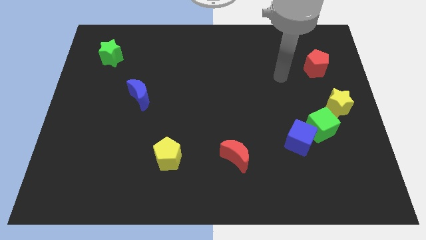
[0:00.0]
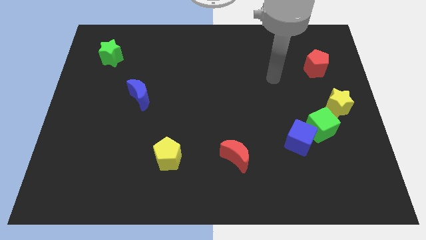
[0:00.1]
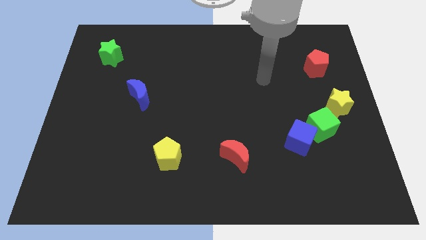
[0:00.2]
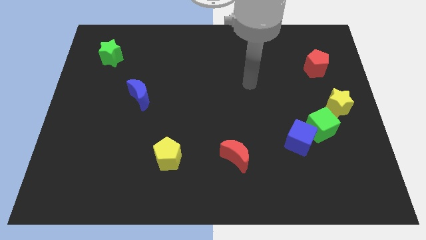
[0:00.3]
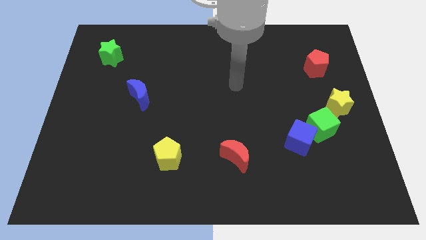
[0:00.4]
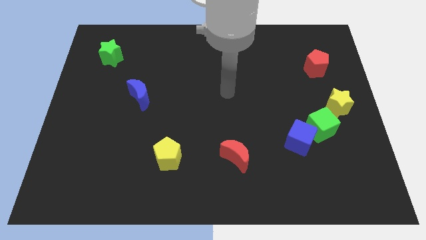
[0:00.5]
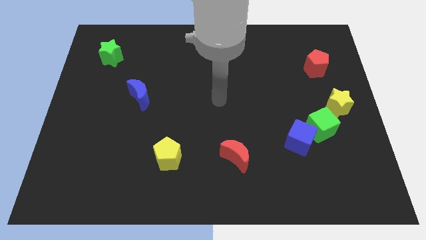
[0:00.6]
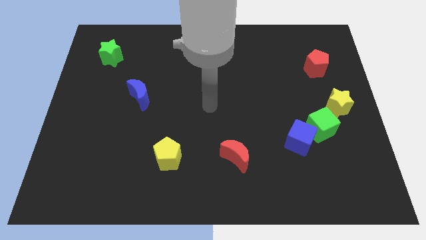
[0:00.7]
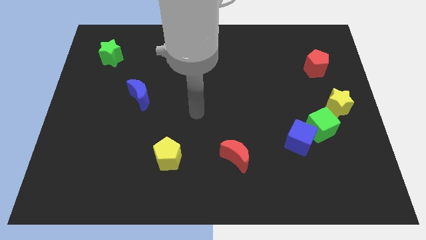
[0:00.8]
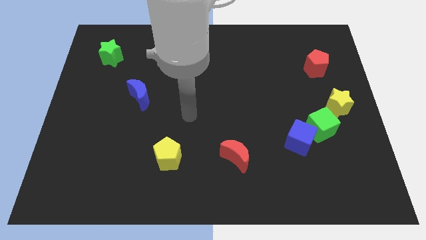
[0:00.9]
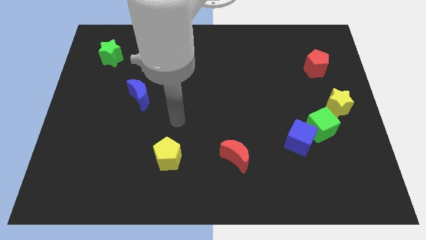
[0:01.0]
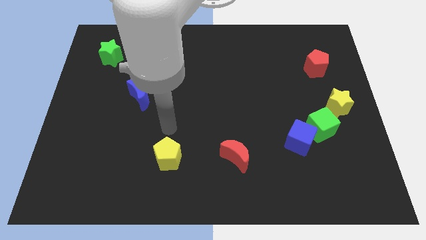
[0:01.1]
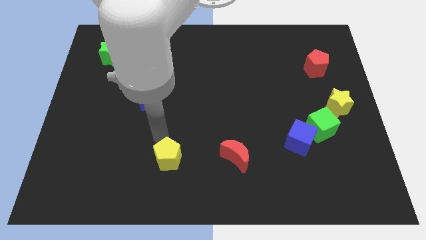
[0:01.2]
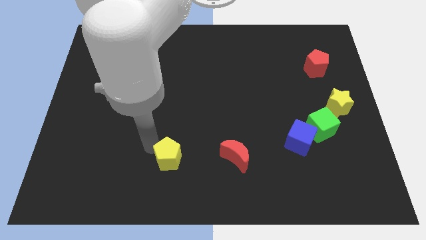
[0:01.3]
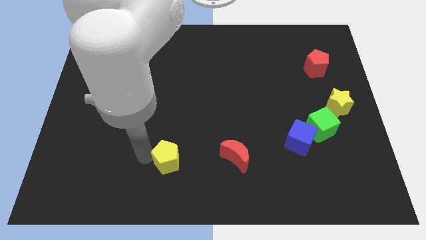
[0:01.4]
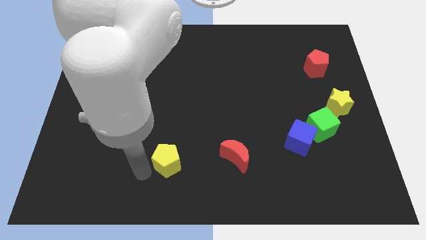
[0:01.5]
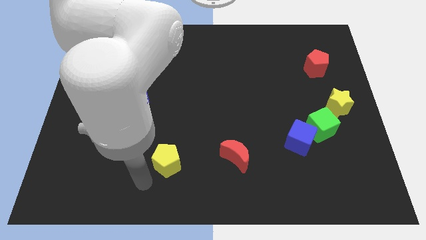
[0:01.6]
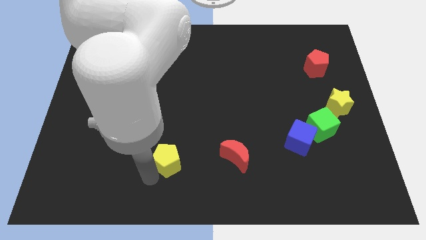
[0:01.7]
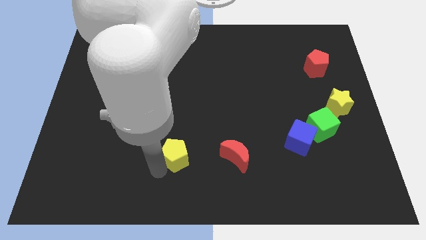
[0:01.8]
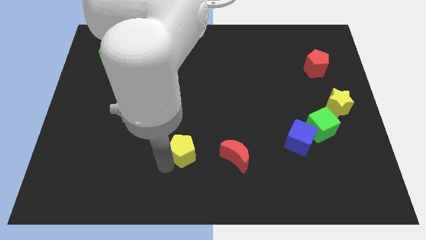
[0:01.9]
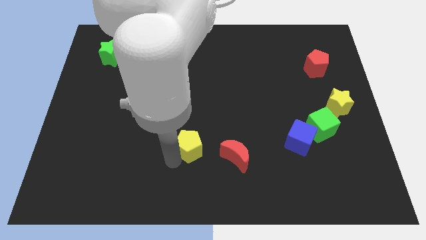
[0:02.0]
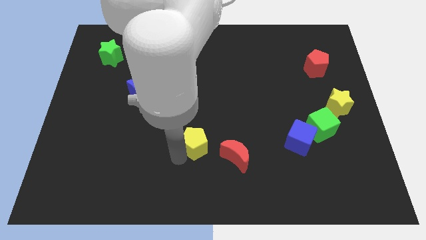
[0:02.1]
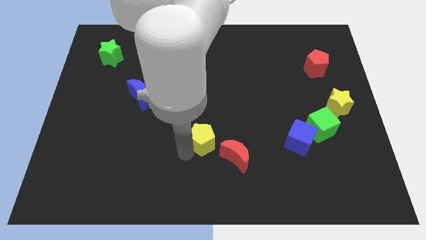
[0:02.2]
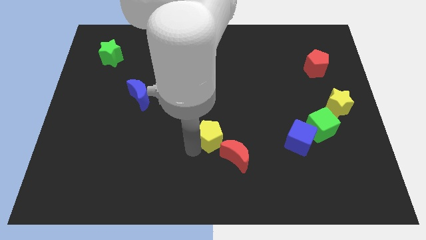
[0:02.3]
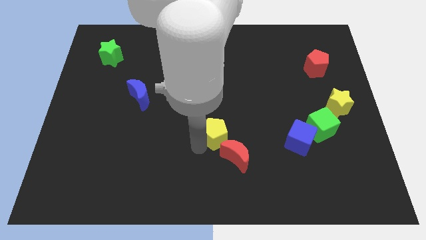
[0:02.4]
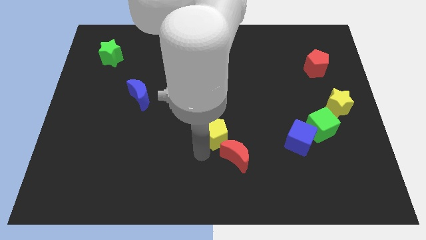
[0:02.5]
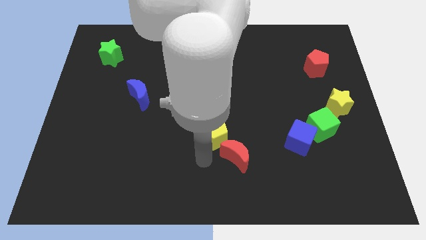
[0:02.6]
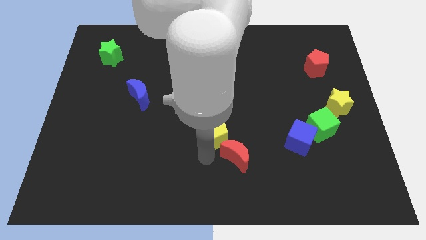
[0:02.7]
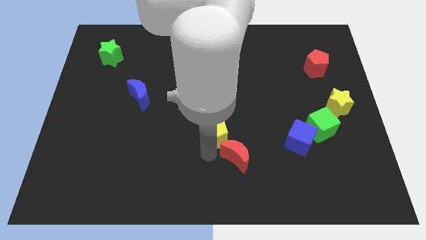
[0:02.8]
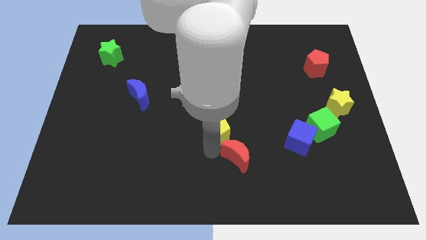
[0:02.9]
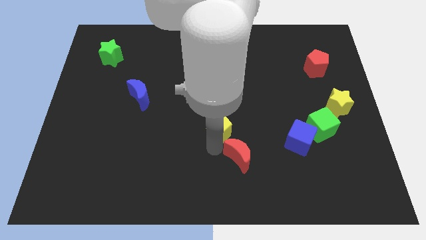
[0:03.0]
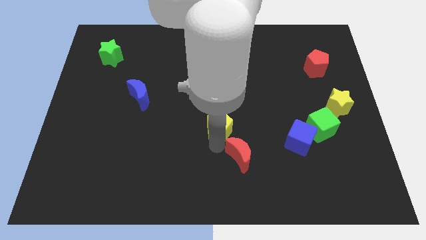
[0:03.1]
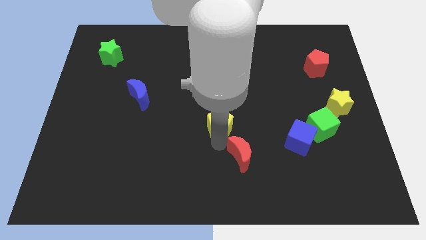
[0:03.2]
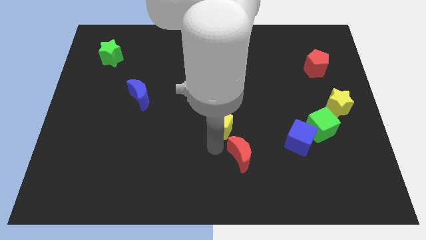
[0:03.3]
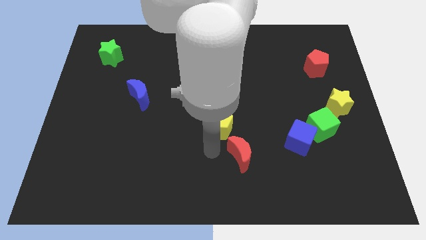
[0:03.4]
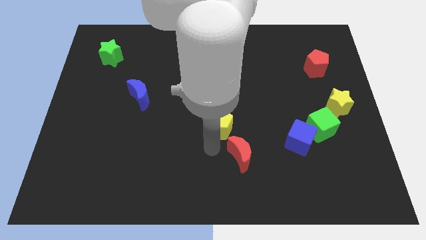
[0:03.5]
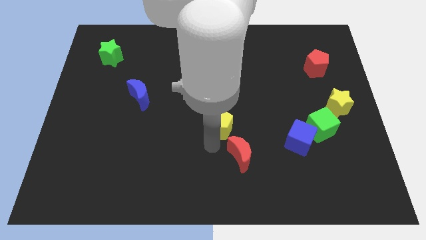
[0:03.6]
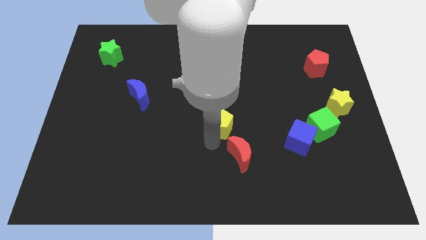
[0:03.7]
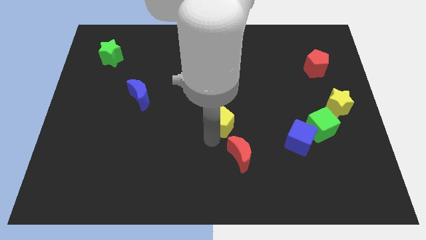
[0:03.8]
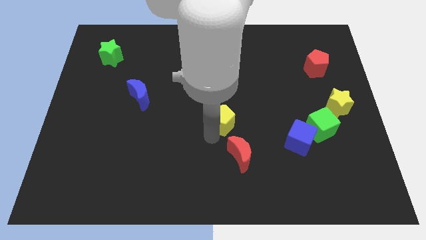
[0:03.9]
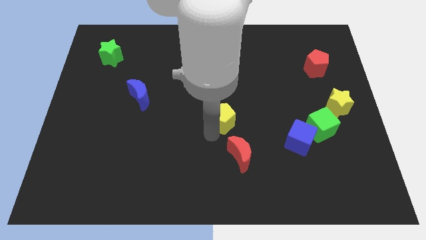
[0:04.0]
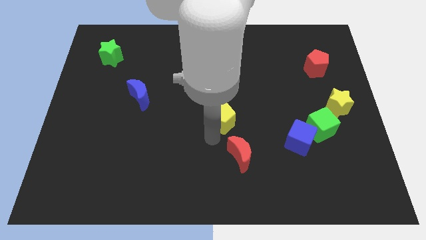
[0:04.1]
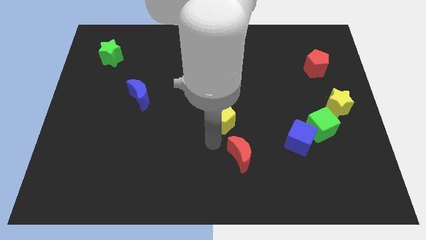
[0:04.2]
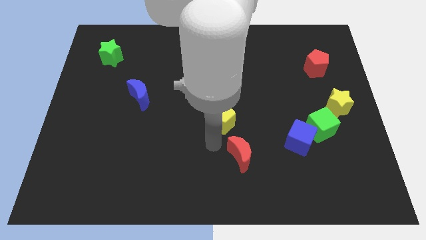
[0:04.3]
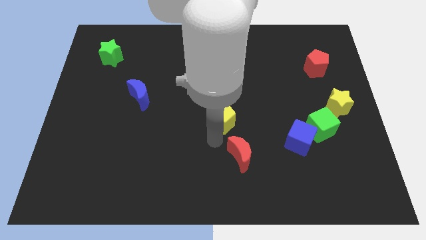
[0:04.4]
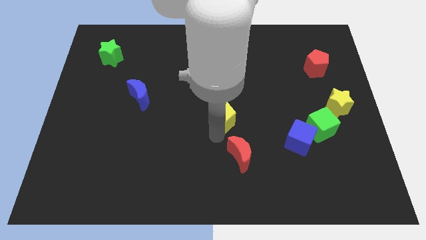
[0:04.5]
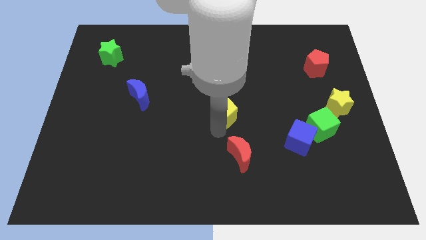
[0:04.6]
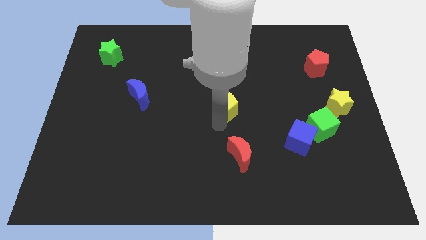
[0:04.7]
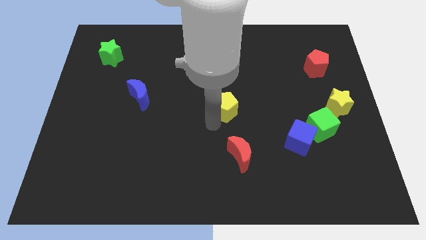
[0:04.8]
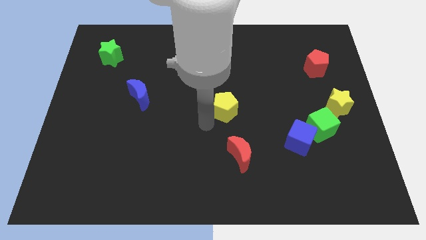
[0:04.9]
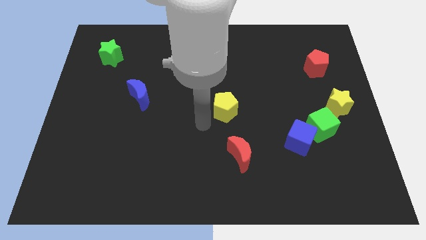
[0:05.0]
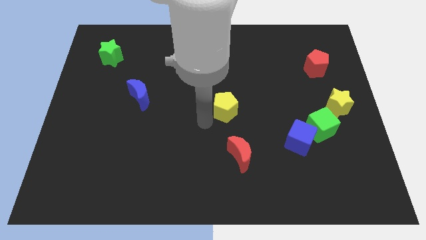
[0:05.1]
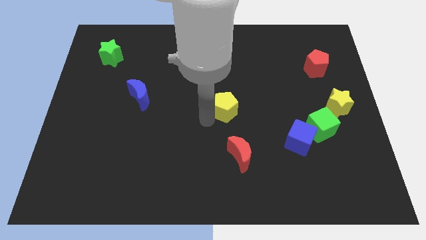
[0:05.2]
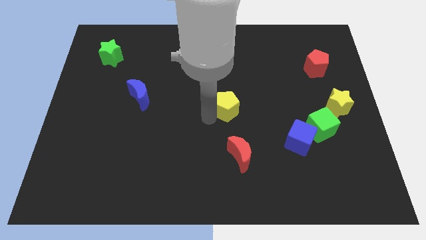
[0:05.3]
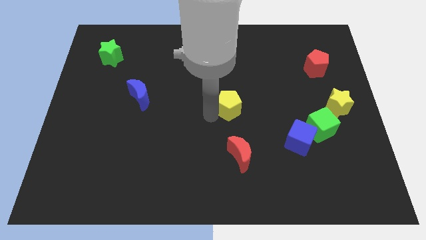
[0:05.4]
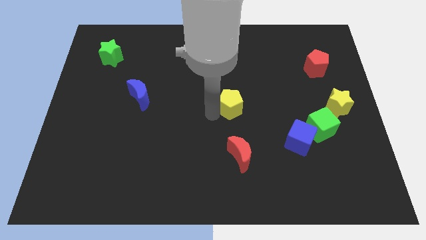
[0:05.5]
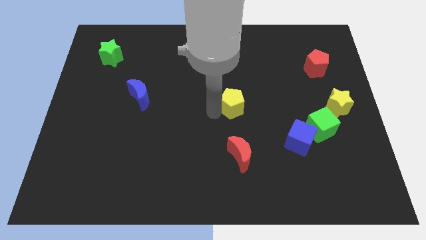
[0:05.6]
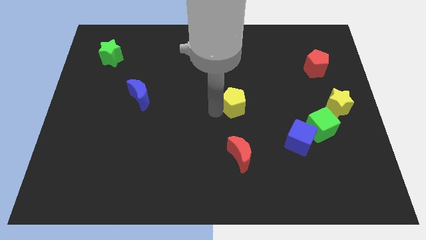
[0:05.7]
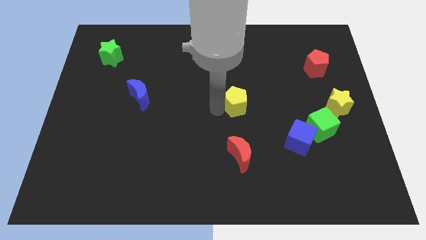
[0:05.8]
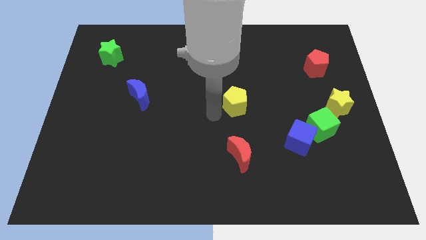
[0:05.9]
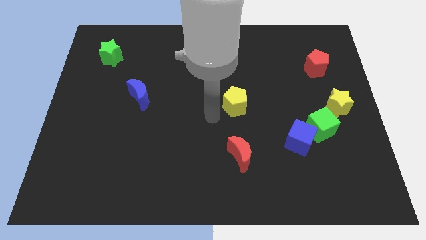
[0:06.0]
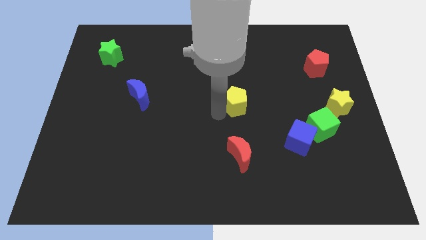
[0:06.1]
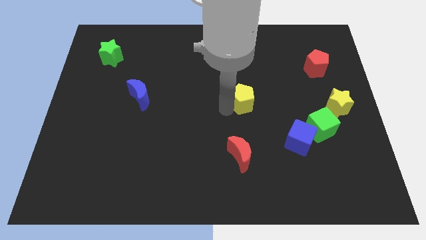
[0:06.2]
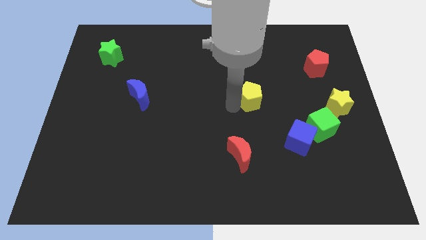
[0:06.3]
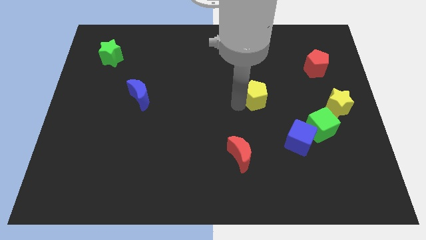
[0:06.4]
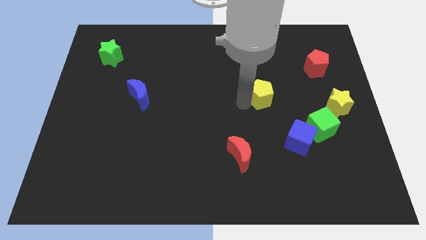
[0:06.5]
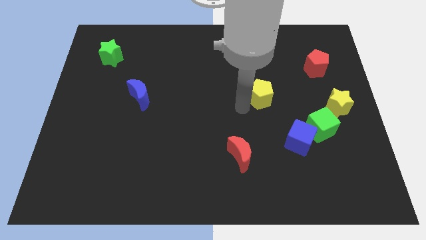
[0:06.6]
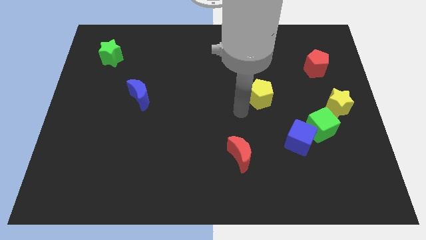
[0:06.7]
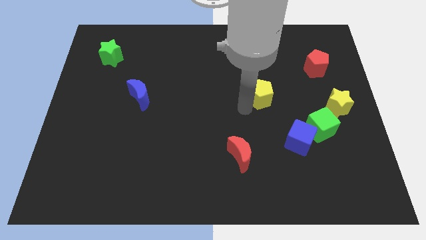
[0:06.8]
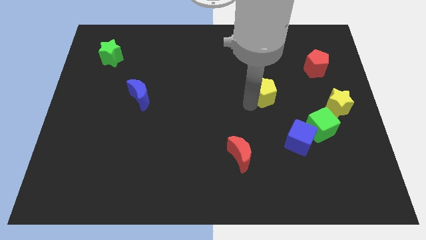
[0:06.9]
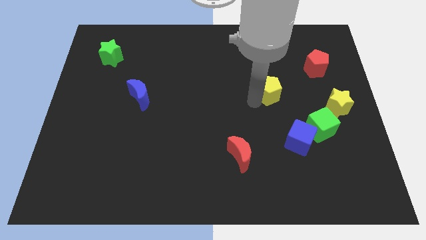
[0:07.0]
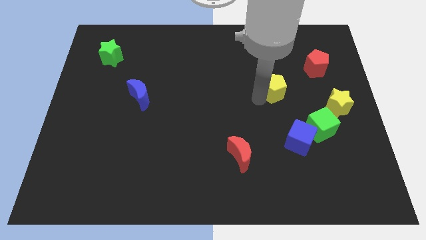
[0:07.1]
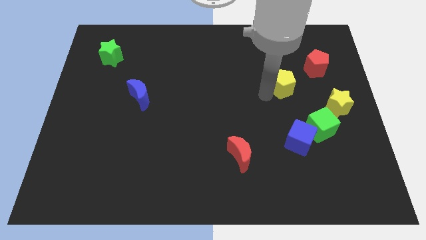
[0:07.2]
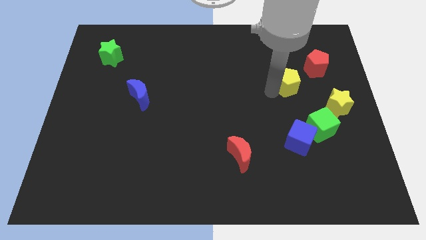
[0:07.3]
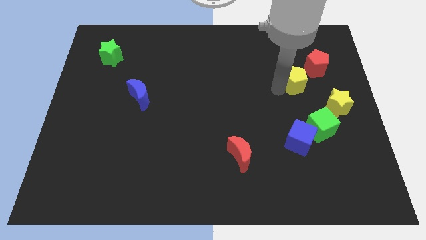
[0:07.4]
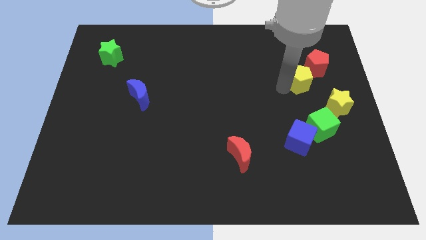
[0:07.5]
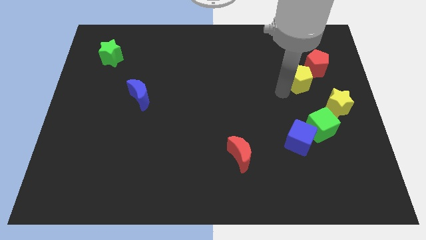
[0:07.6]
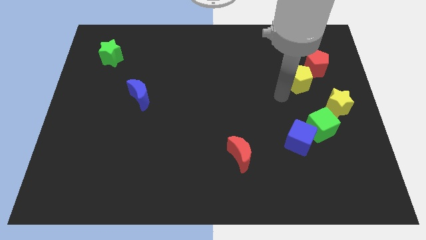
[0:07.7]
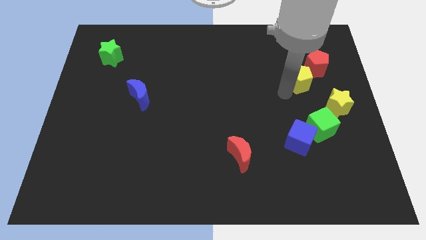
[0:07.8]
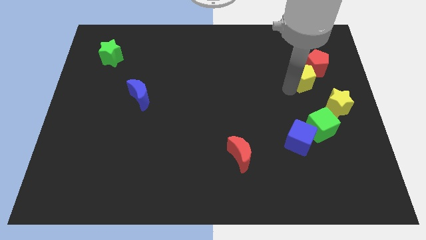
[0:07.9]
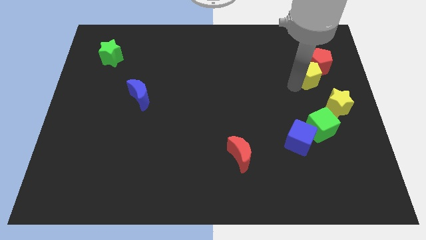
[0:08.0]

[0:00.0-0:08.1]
put the yellow pentagon towards the red pentagon
